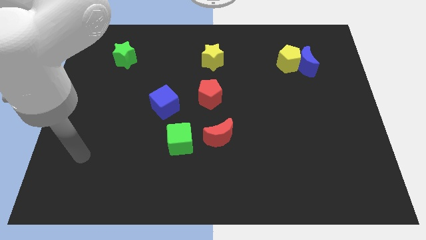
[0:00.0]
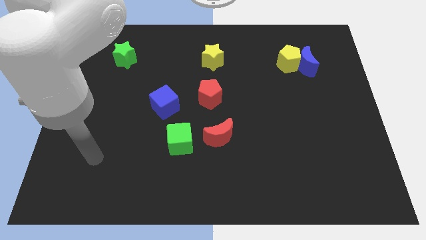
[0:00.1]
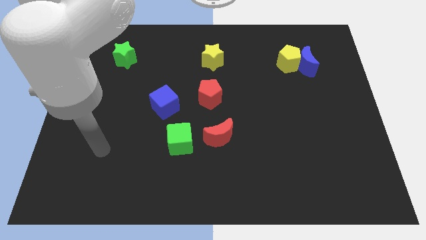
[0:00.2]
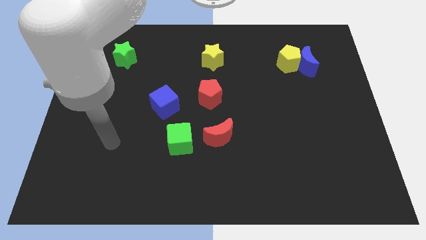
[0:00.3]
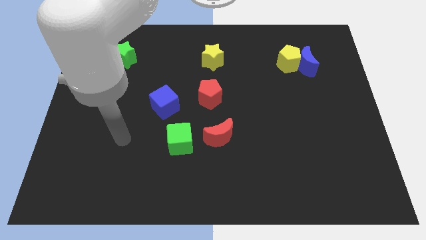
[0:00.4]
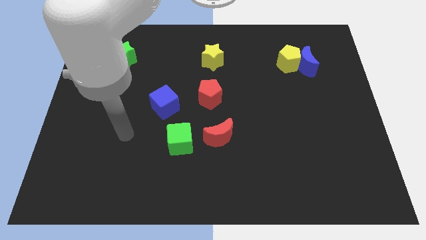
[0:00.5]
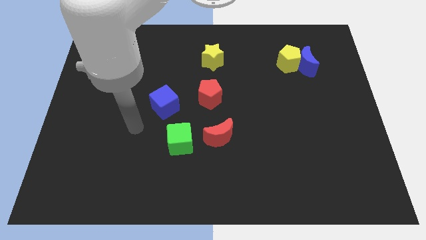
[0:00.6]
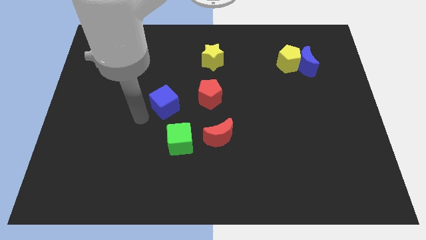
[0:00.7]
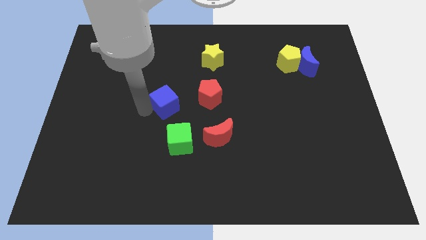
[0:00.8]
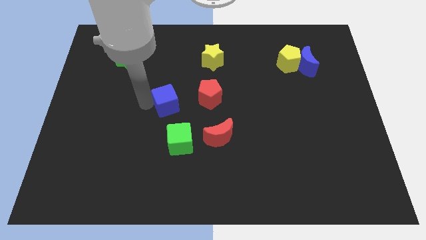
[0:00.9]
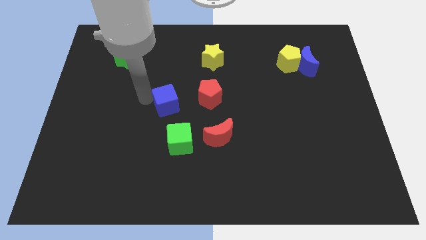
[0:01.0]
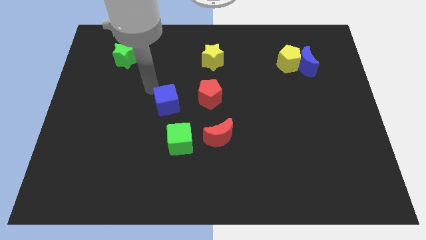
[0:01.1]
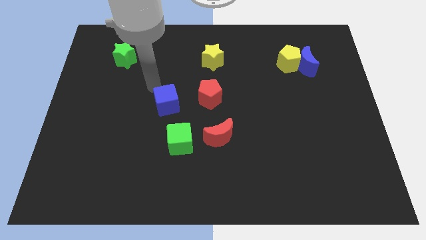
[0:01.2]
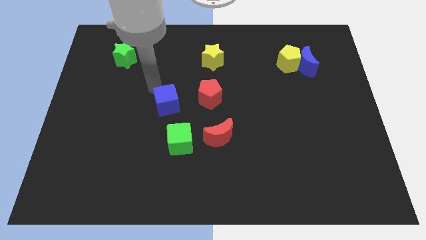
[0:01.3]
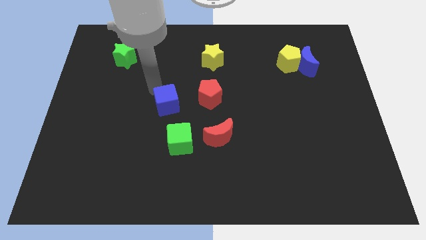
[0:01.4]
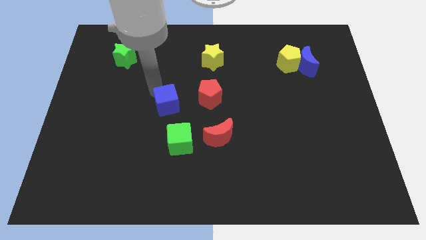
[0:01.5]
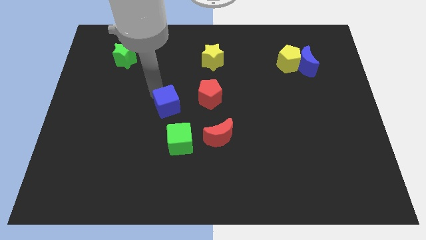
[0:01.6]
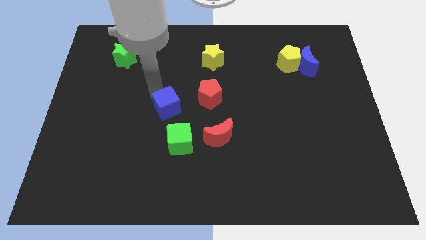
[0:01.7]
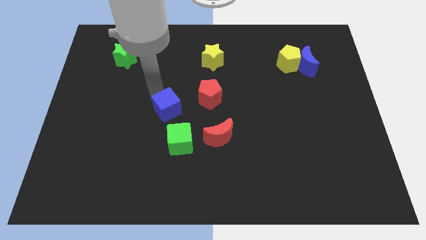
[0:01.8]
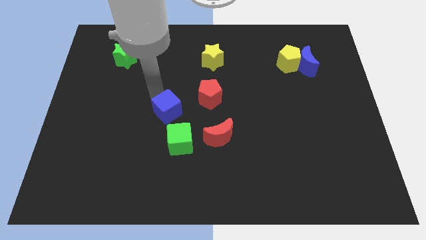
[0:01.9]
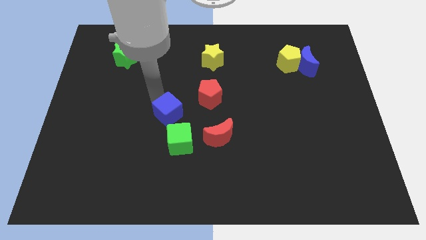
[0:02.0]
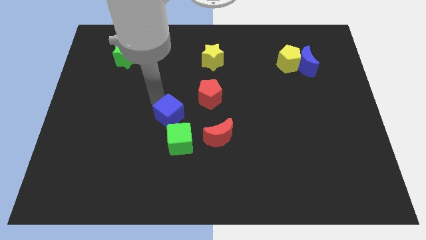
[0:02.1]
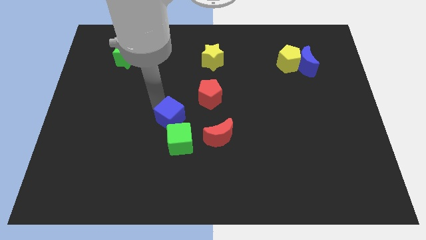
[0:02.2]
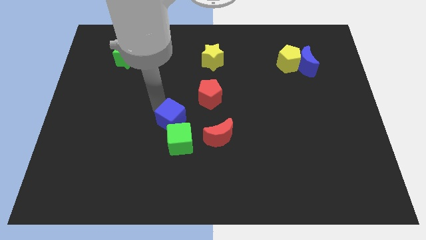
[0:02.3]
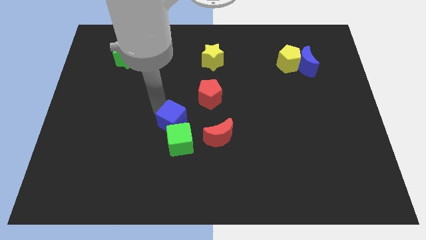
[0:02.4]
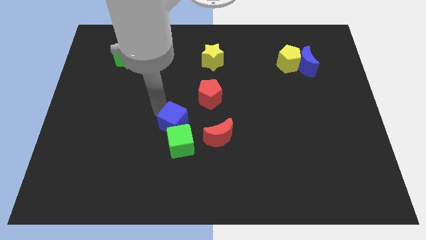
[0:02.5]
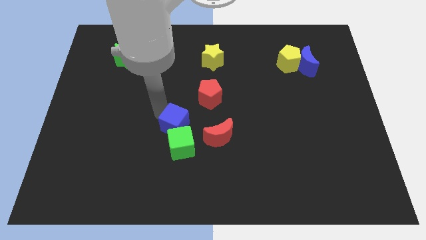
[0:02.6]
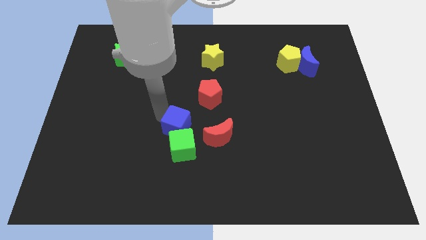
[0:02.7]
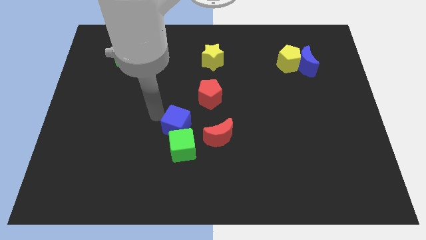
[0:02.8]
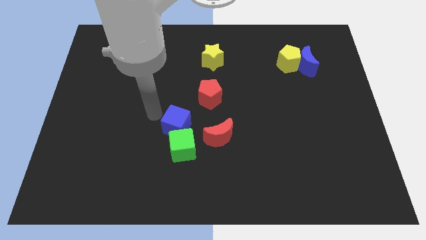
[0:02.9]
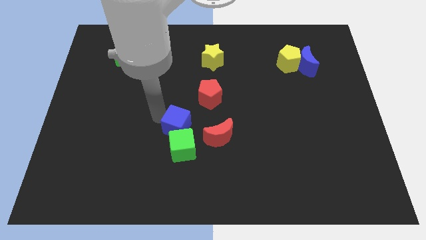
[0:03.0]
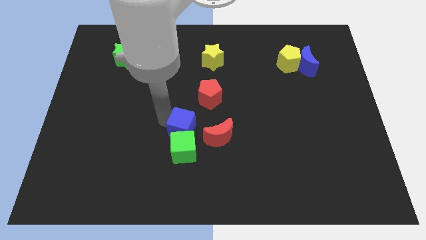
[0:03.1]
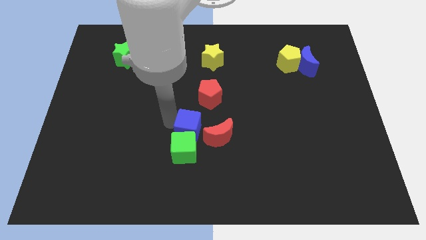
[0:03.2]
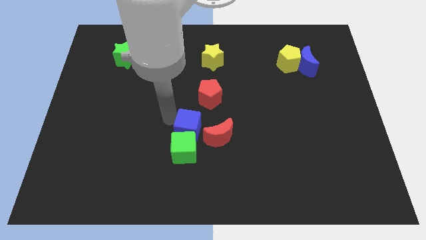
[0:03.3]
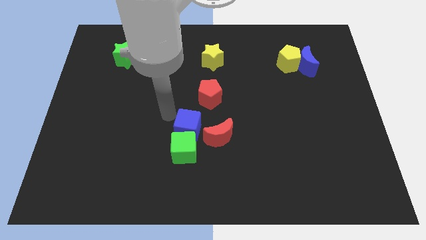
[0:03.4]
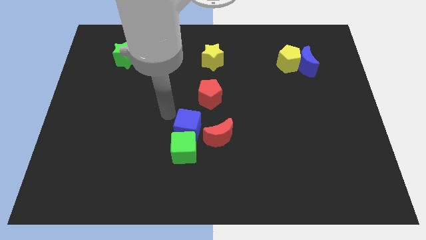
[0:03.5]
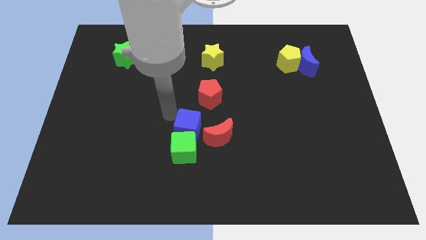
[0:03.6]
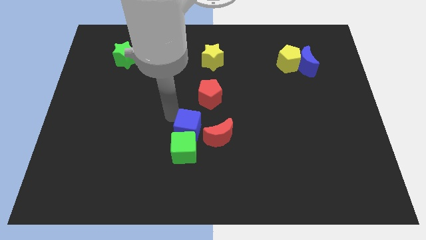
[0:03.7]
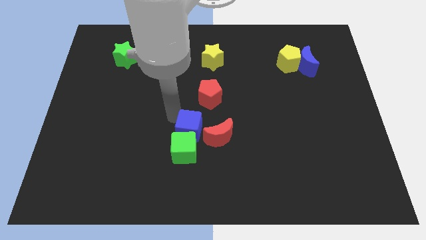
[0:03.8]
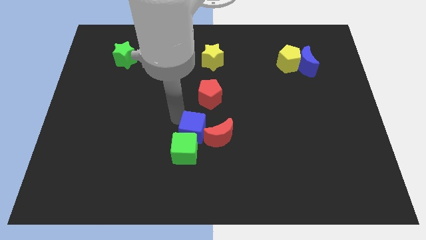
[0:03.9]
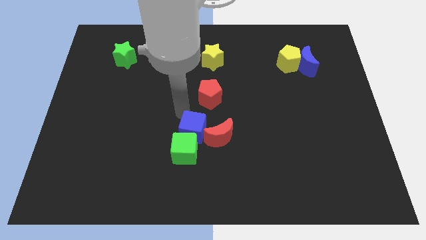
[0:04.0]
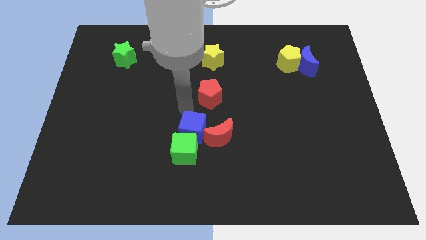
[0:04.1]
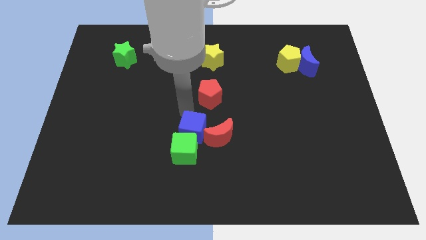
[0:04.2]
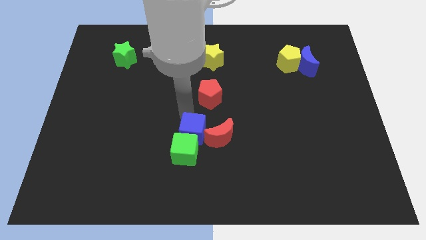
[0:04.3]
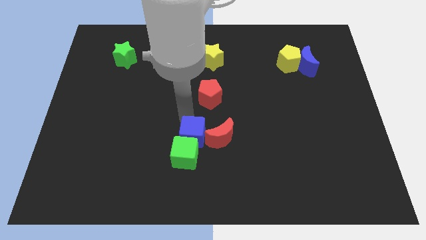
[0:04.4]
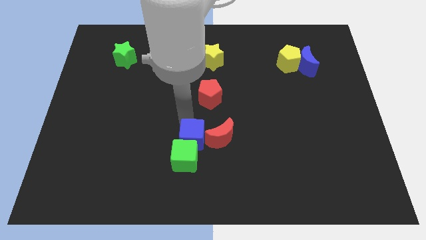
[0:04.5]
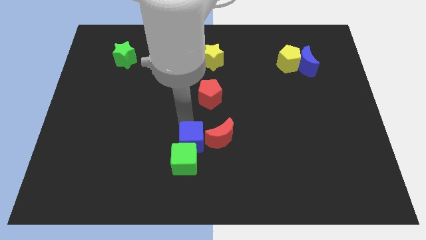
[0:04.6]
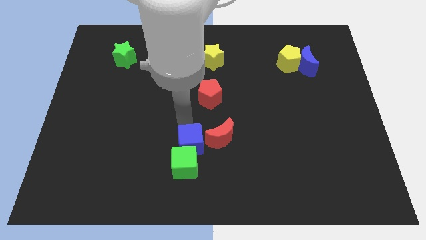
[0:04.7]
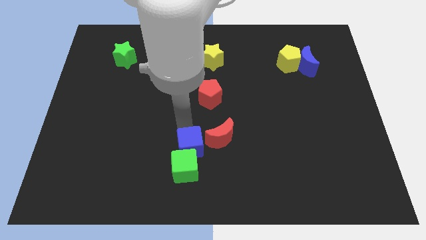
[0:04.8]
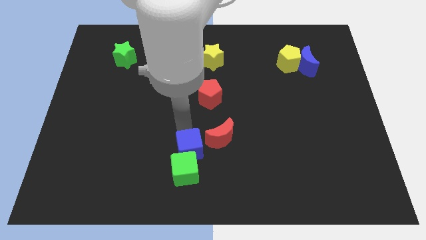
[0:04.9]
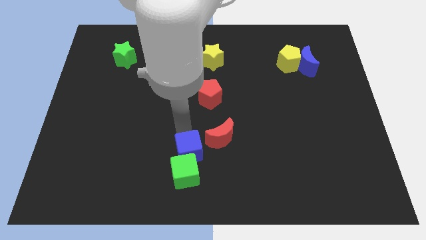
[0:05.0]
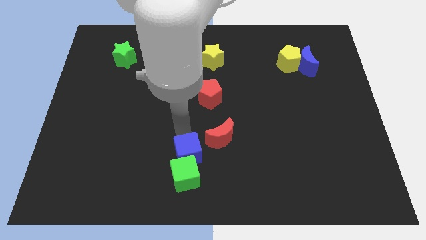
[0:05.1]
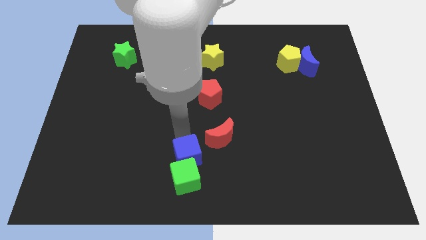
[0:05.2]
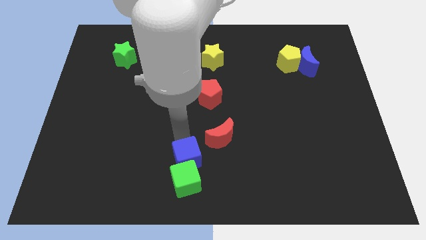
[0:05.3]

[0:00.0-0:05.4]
put the blue cube to the bottom

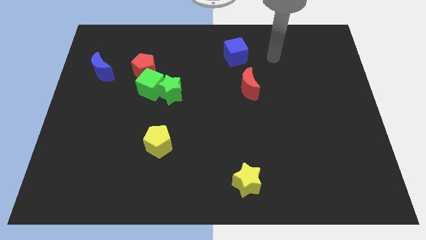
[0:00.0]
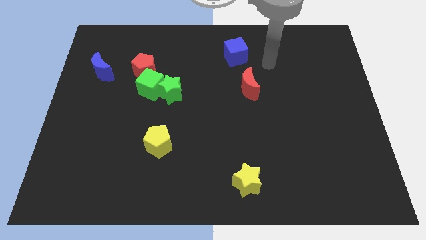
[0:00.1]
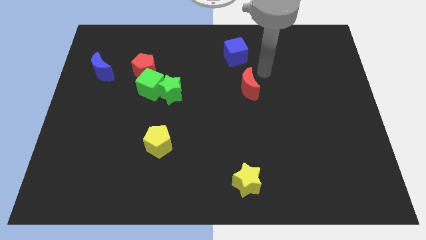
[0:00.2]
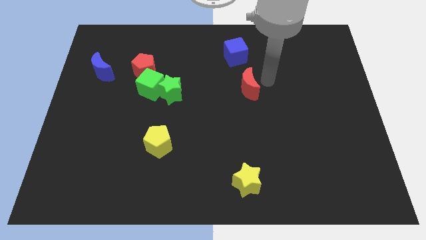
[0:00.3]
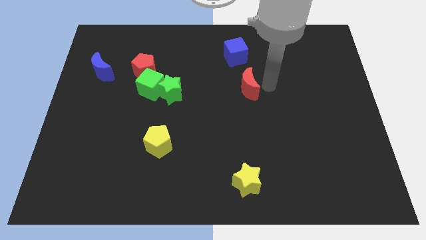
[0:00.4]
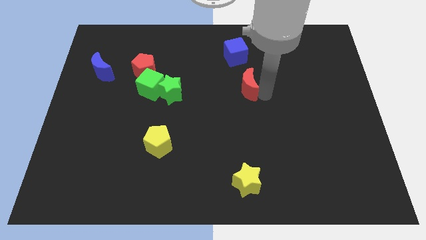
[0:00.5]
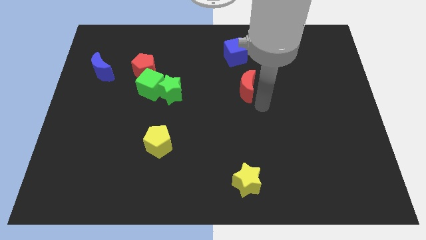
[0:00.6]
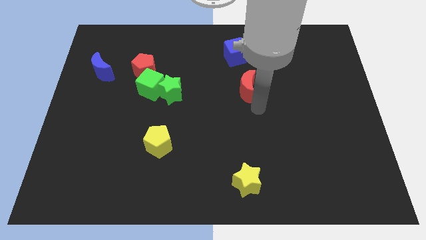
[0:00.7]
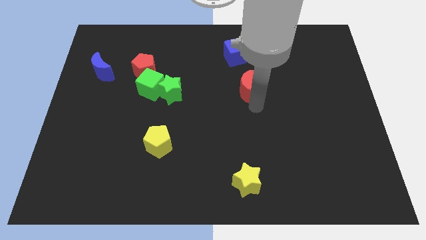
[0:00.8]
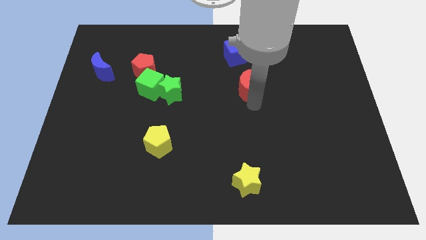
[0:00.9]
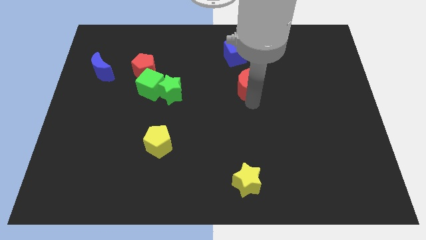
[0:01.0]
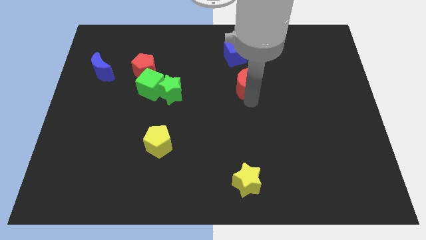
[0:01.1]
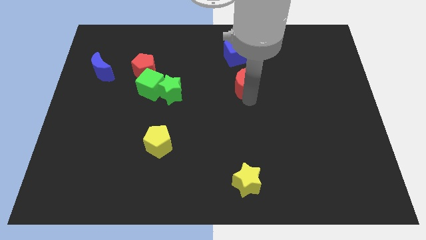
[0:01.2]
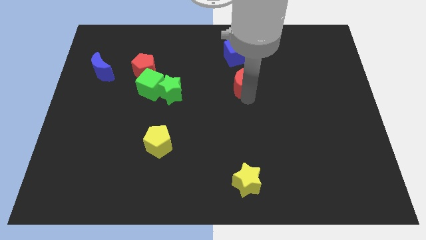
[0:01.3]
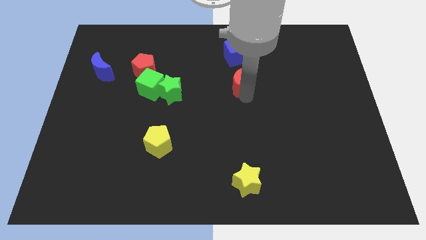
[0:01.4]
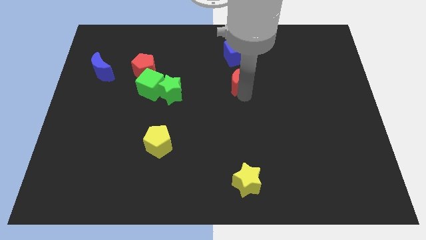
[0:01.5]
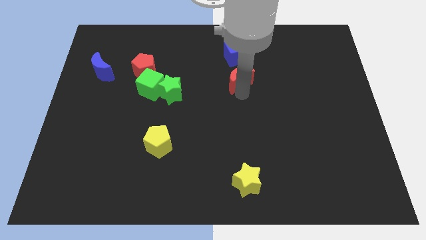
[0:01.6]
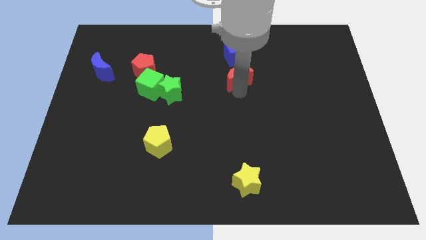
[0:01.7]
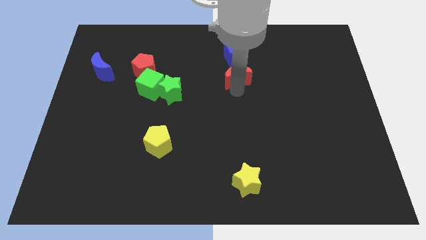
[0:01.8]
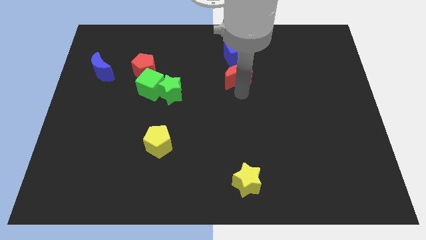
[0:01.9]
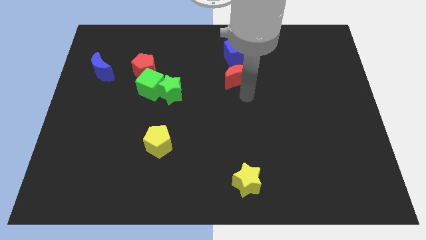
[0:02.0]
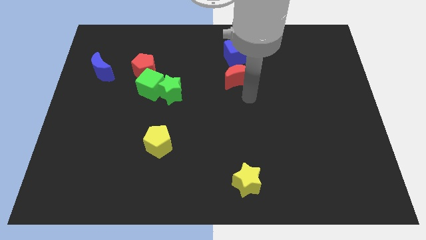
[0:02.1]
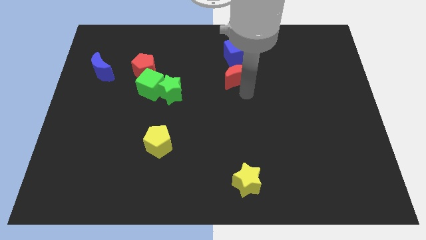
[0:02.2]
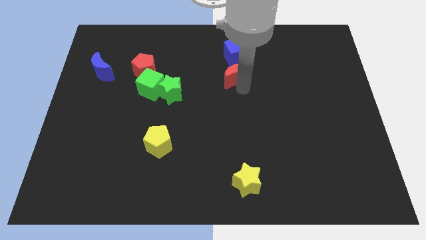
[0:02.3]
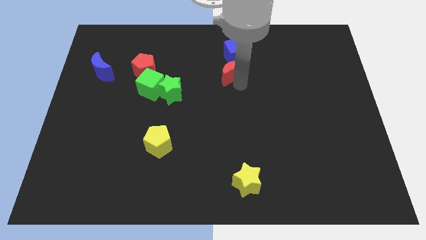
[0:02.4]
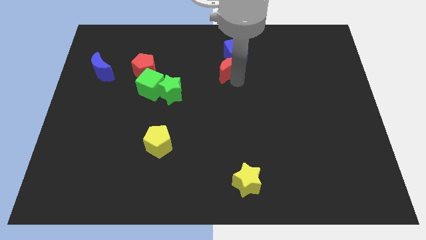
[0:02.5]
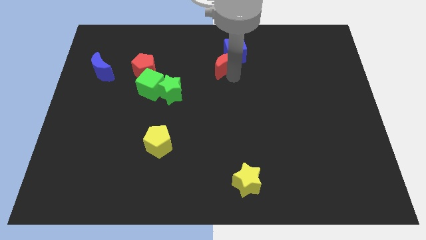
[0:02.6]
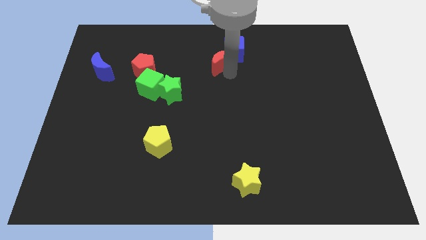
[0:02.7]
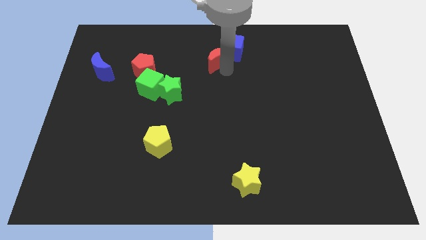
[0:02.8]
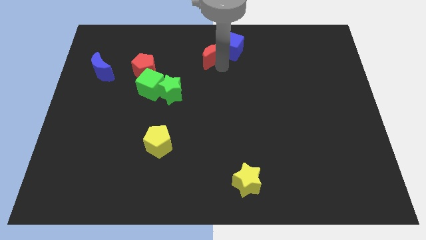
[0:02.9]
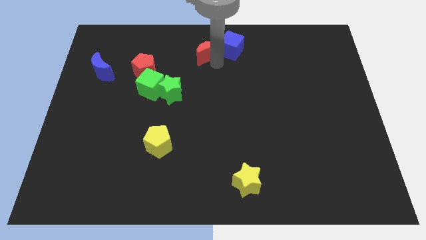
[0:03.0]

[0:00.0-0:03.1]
put the red moon to the top
